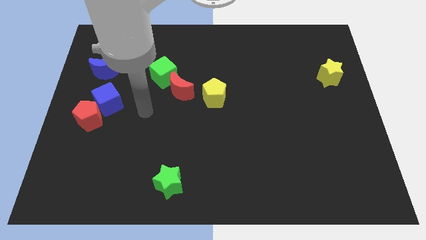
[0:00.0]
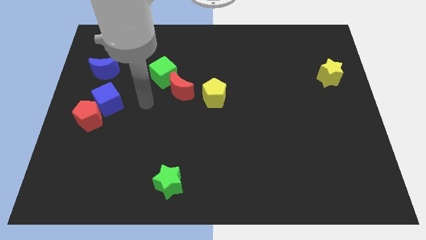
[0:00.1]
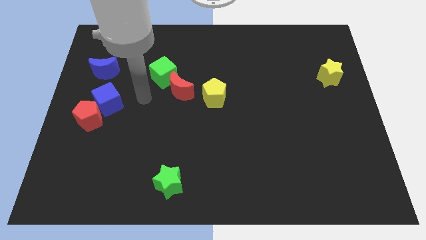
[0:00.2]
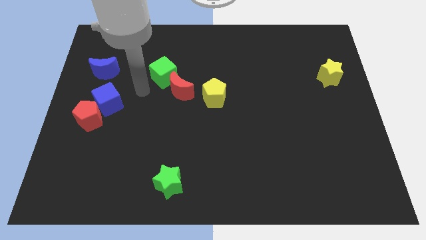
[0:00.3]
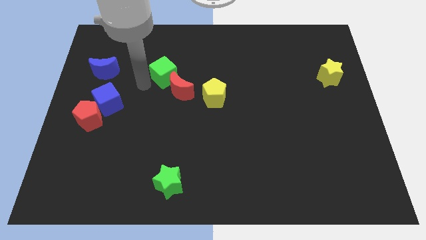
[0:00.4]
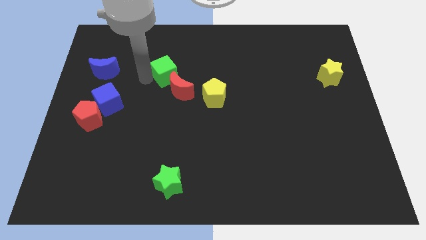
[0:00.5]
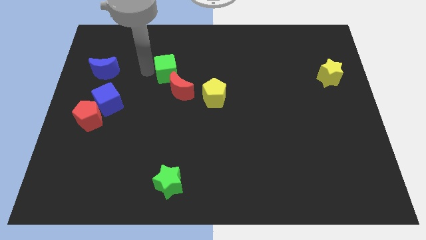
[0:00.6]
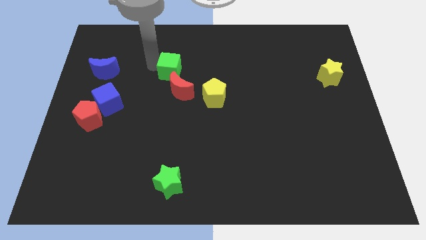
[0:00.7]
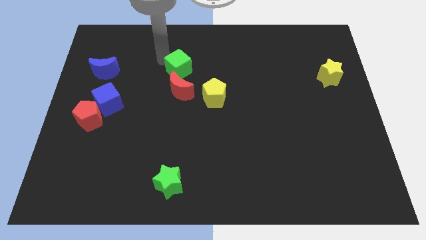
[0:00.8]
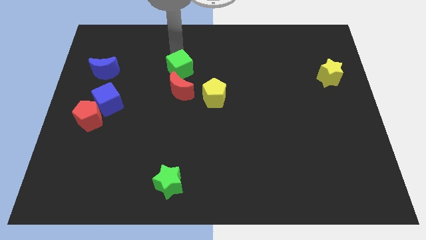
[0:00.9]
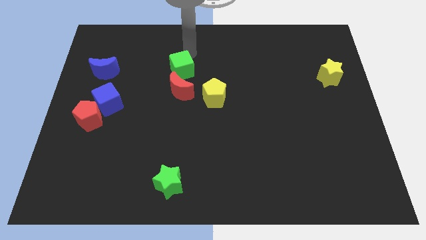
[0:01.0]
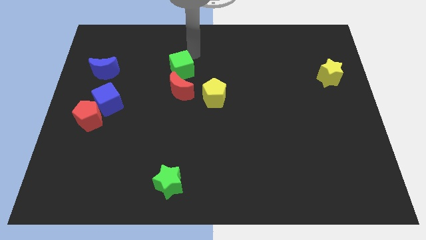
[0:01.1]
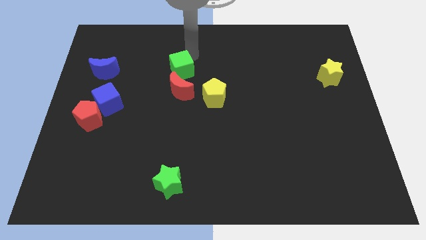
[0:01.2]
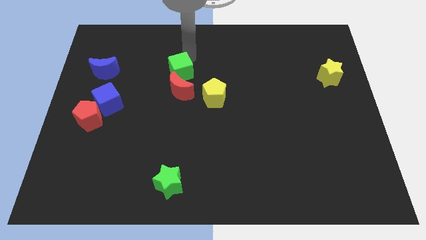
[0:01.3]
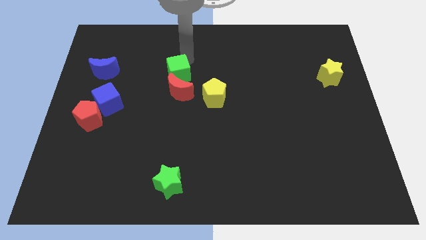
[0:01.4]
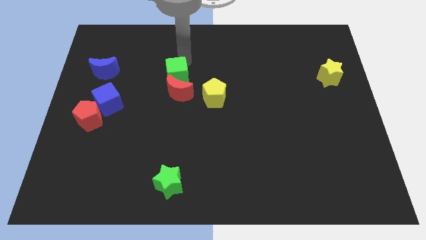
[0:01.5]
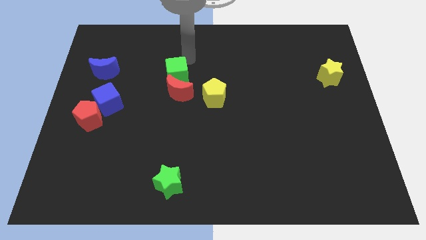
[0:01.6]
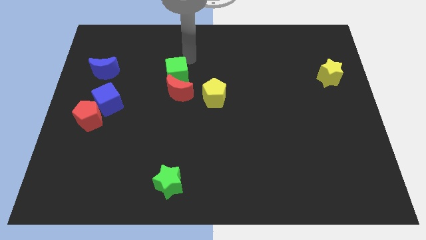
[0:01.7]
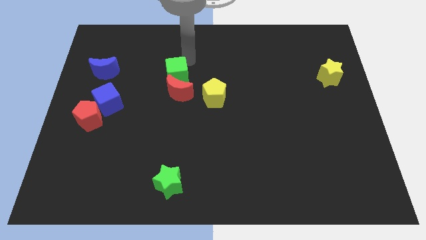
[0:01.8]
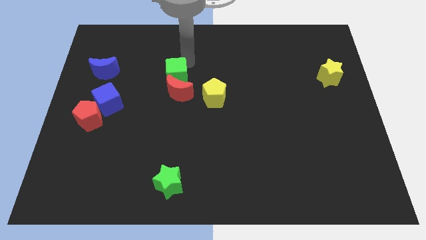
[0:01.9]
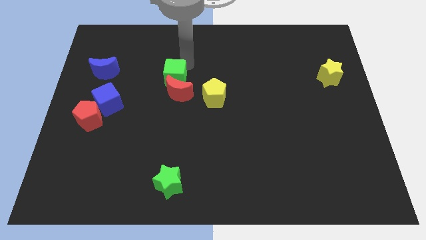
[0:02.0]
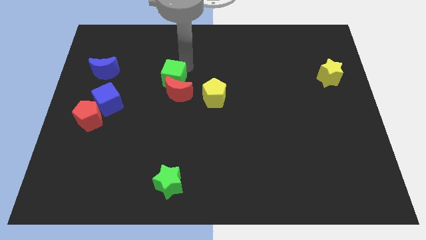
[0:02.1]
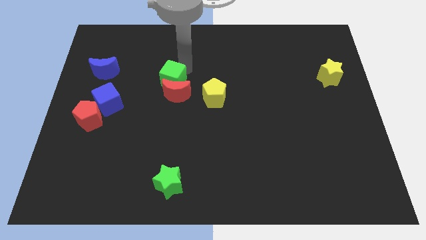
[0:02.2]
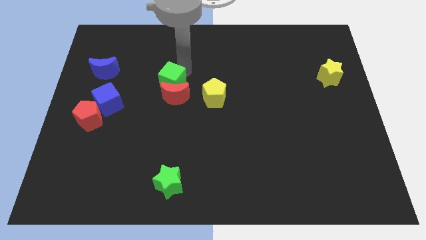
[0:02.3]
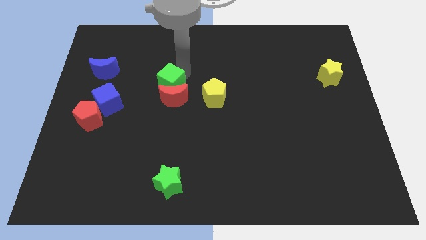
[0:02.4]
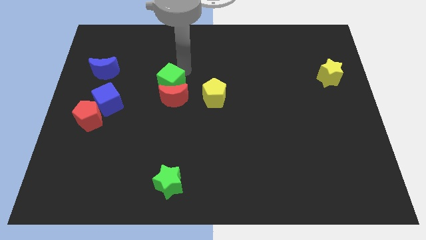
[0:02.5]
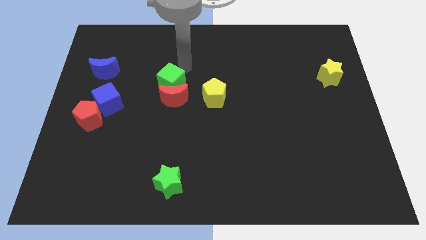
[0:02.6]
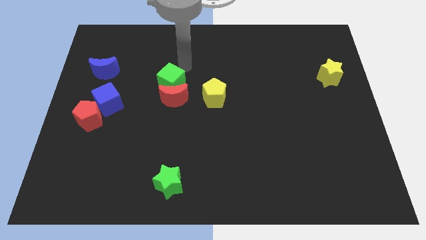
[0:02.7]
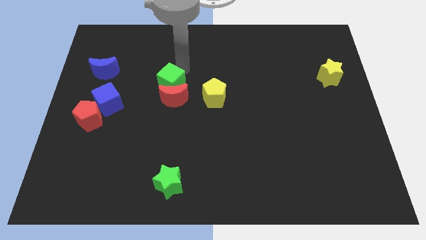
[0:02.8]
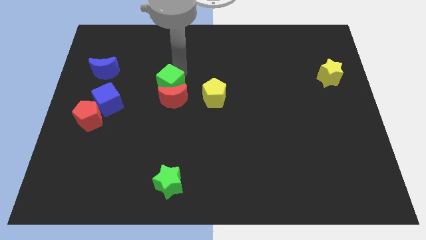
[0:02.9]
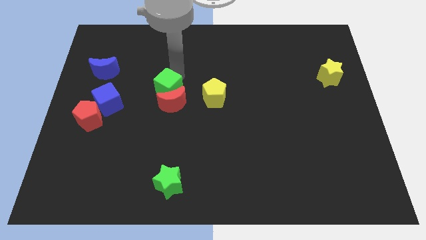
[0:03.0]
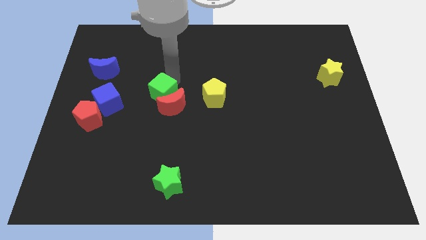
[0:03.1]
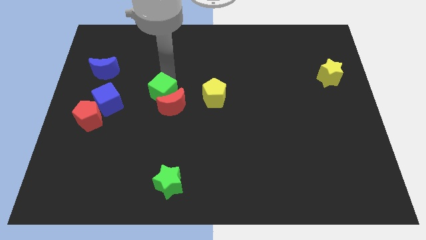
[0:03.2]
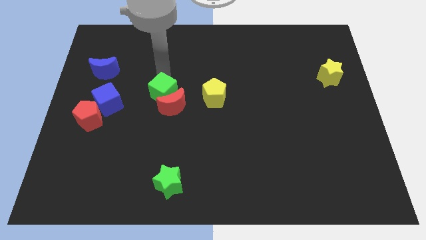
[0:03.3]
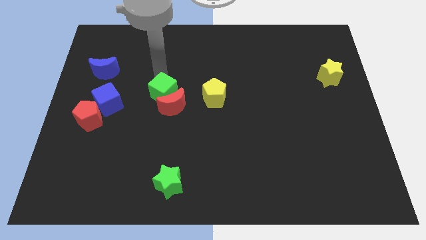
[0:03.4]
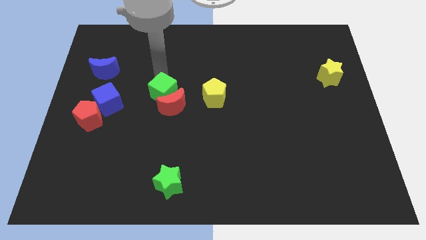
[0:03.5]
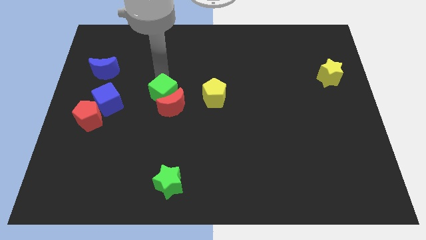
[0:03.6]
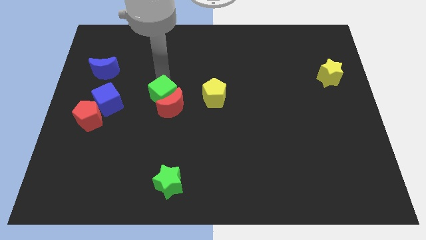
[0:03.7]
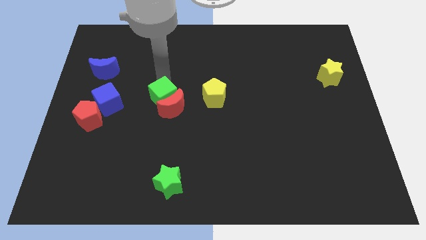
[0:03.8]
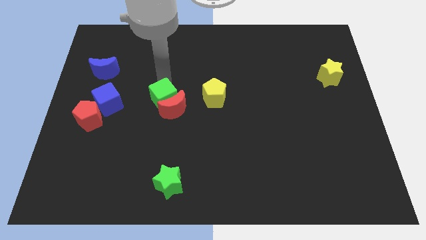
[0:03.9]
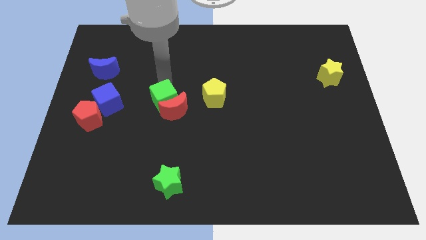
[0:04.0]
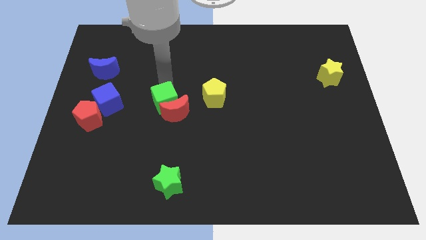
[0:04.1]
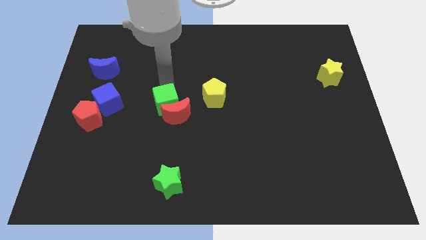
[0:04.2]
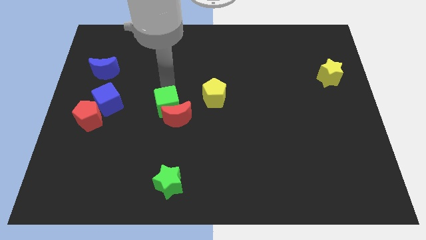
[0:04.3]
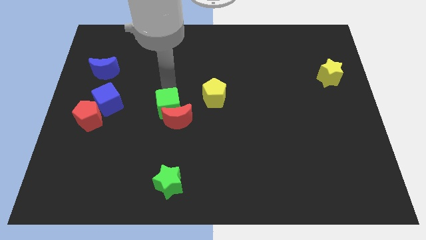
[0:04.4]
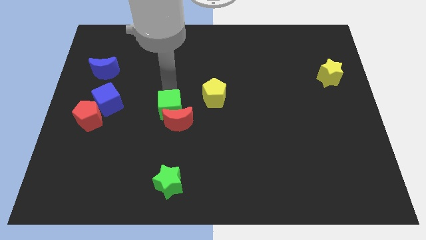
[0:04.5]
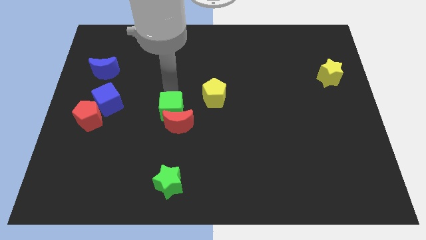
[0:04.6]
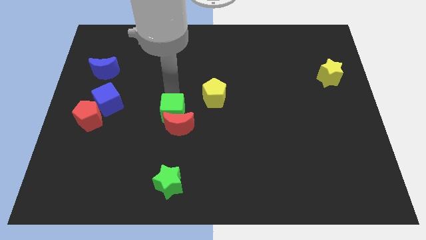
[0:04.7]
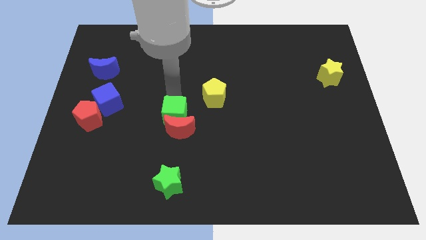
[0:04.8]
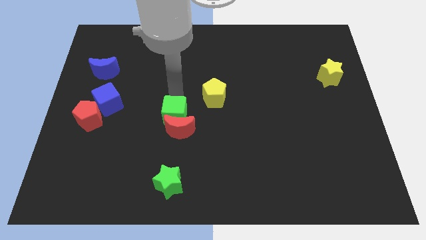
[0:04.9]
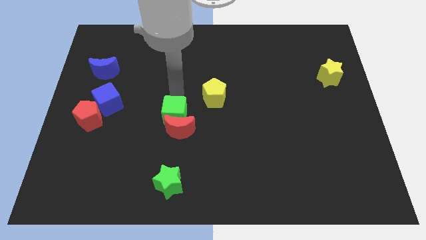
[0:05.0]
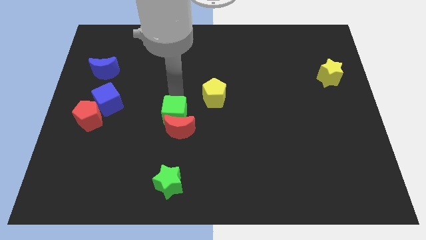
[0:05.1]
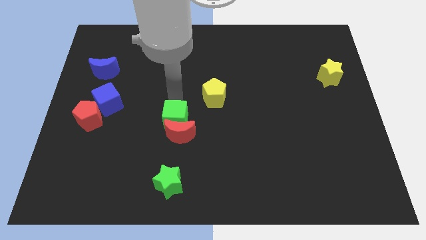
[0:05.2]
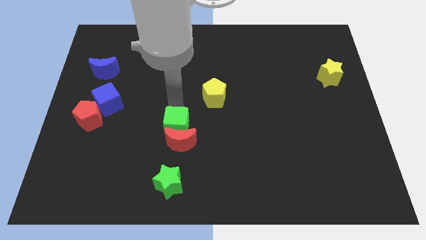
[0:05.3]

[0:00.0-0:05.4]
put the green cube to the top side of the green star

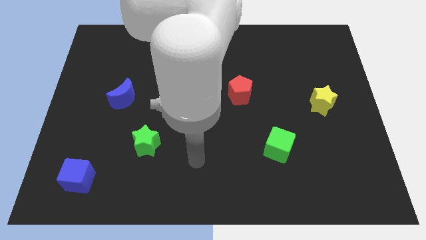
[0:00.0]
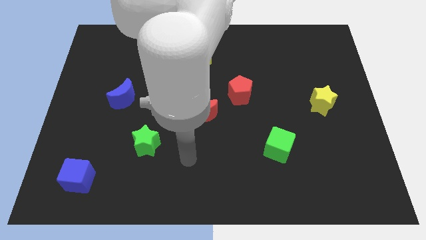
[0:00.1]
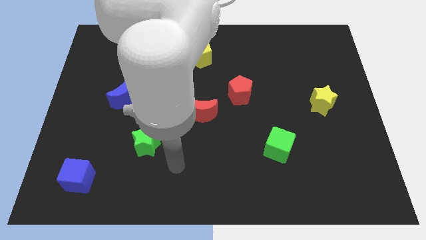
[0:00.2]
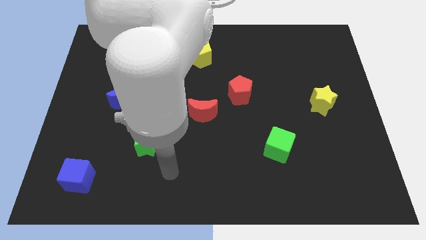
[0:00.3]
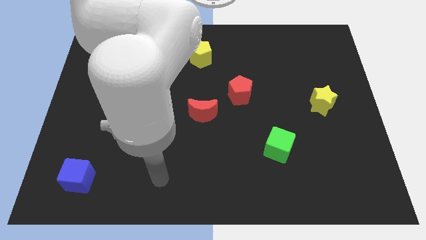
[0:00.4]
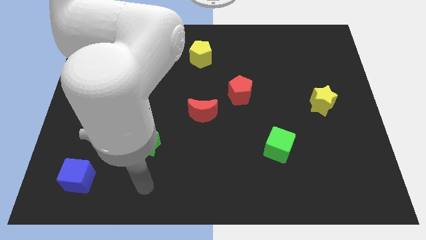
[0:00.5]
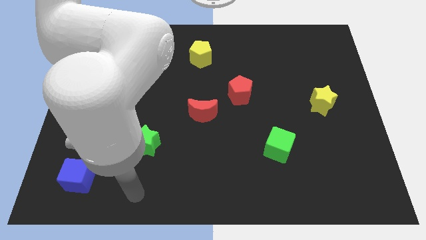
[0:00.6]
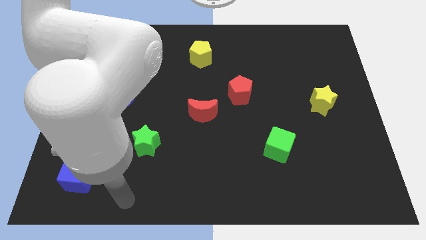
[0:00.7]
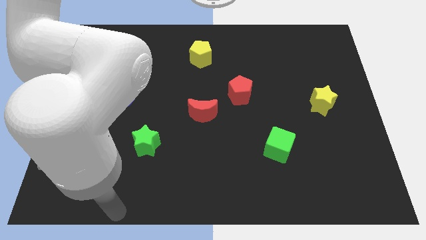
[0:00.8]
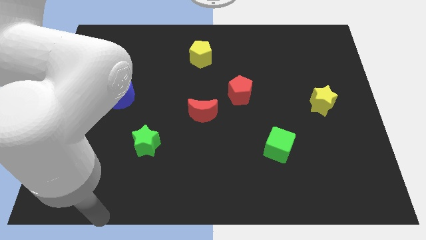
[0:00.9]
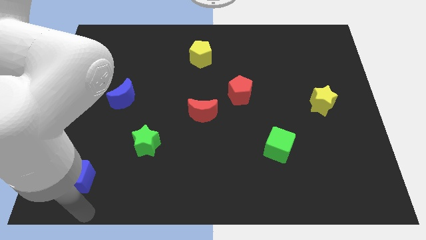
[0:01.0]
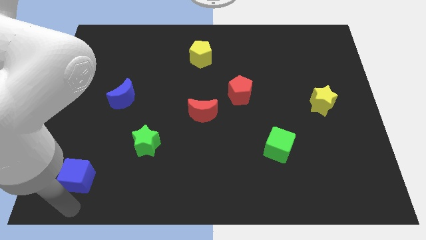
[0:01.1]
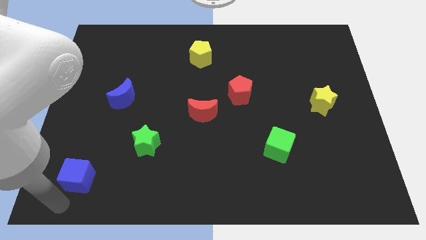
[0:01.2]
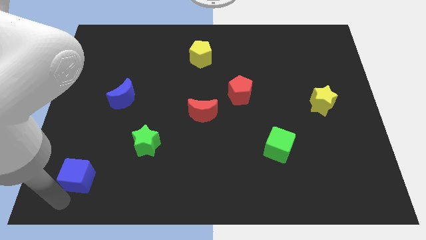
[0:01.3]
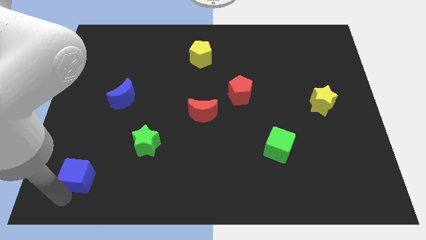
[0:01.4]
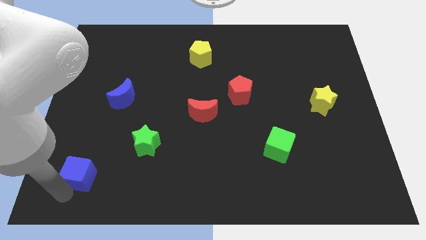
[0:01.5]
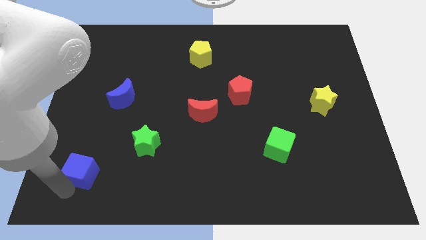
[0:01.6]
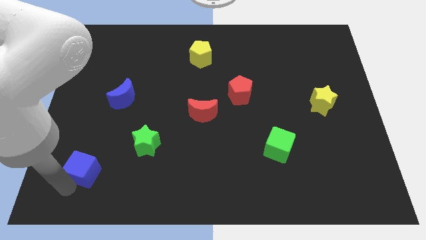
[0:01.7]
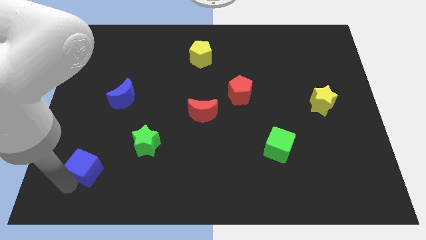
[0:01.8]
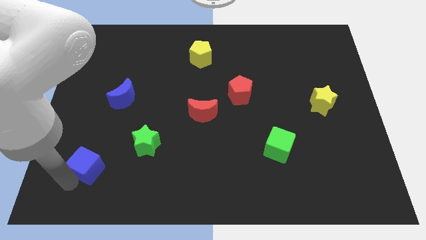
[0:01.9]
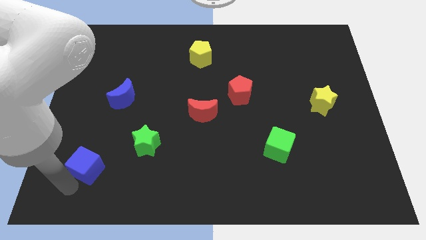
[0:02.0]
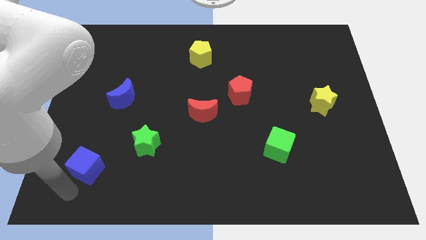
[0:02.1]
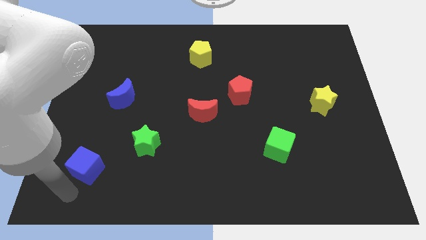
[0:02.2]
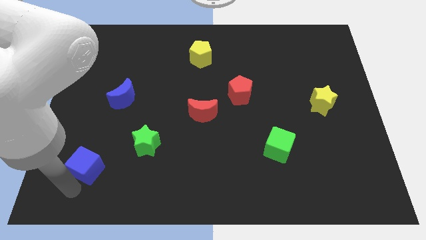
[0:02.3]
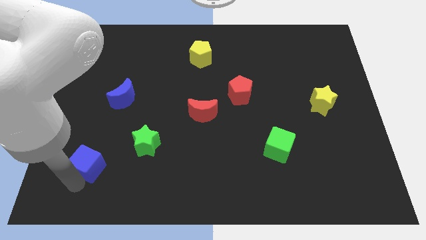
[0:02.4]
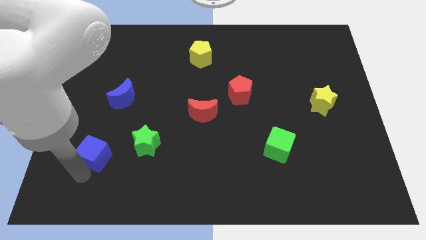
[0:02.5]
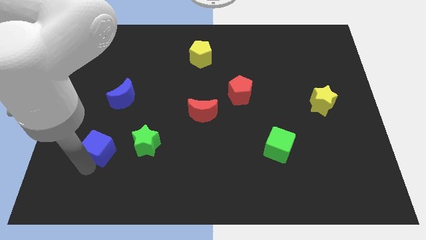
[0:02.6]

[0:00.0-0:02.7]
move the blue cube to the bottom side of the blue moon

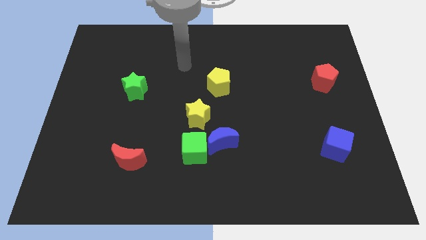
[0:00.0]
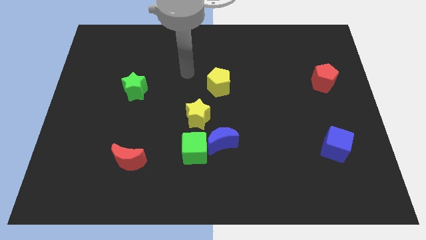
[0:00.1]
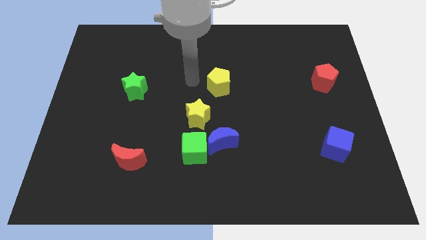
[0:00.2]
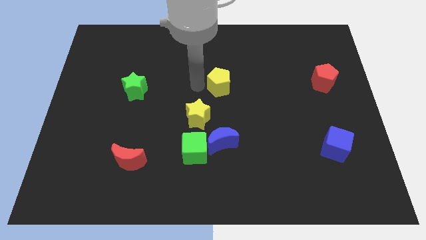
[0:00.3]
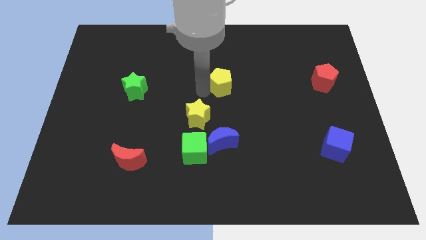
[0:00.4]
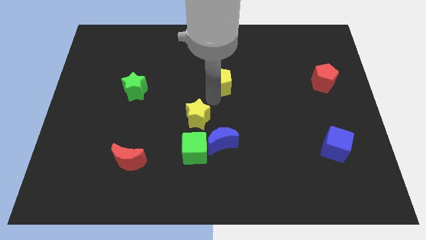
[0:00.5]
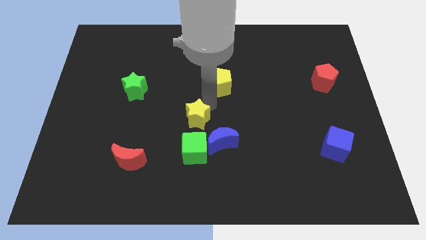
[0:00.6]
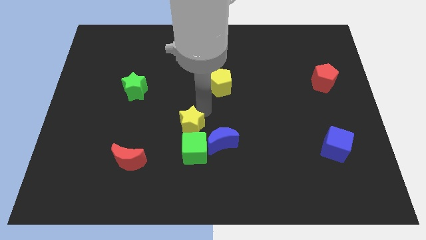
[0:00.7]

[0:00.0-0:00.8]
put the yellow star left of the blue moon
